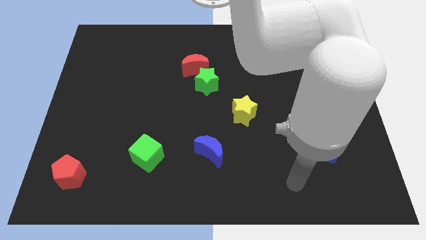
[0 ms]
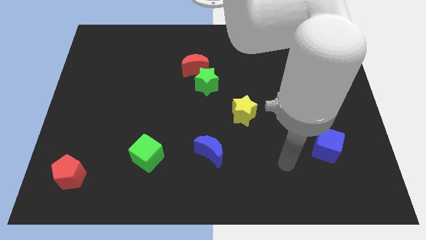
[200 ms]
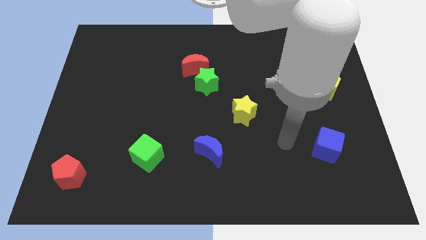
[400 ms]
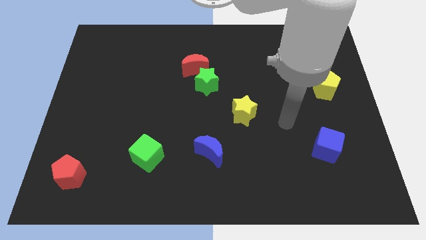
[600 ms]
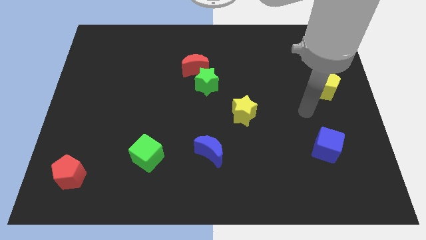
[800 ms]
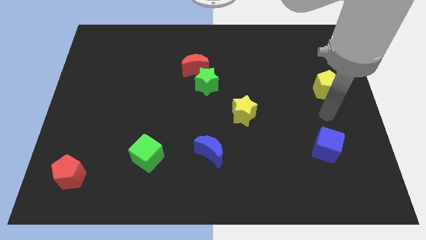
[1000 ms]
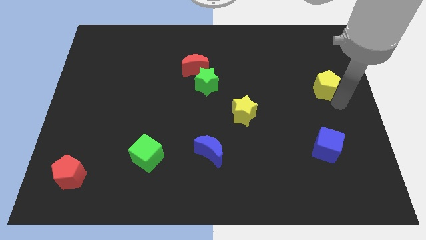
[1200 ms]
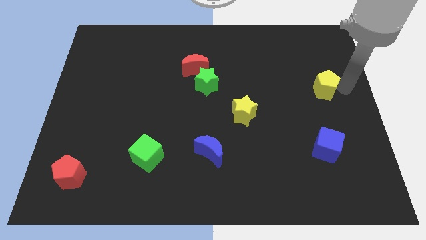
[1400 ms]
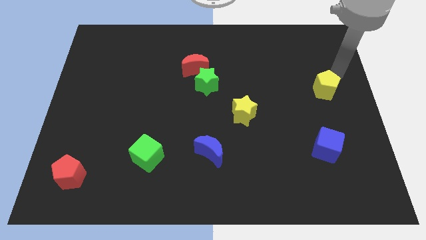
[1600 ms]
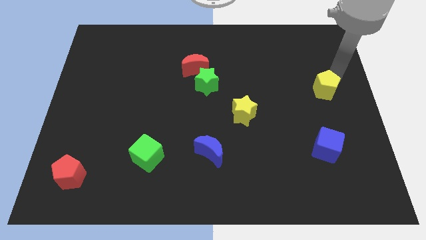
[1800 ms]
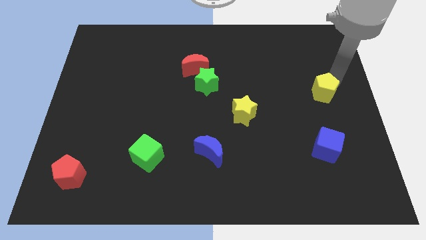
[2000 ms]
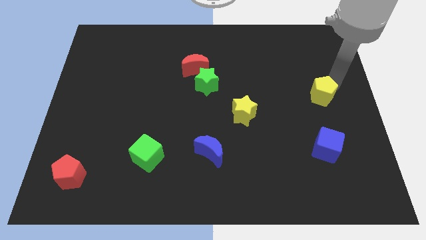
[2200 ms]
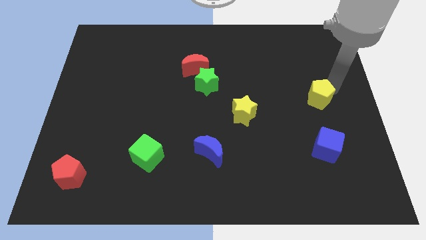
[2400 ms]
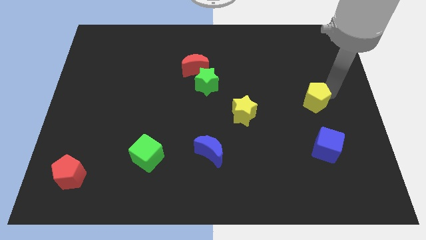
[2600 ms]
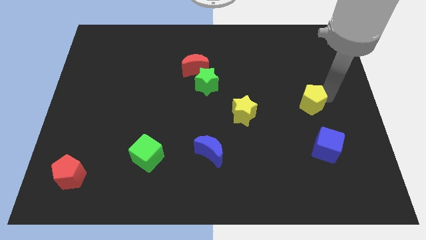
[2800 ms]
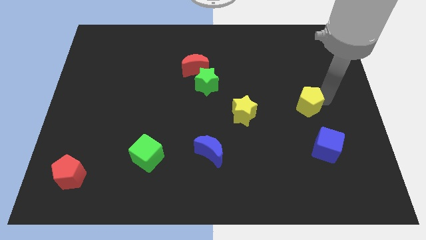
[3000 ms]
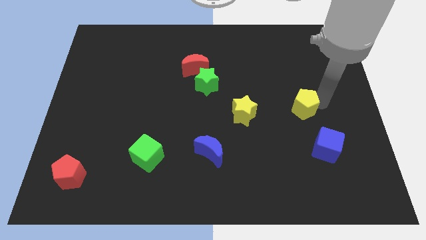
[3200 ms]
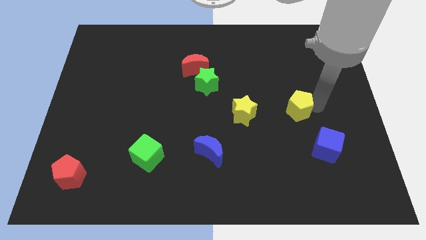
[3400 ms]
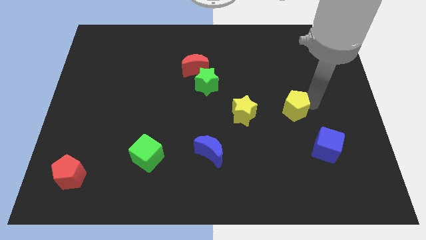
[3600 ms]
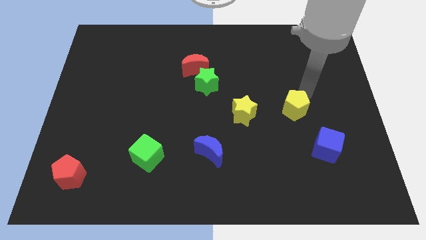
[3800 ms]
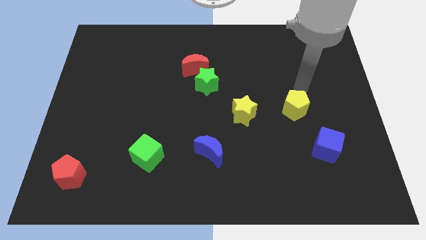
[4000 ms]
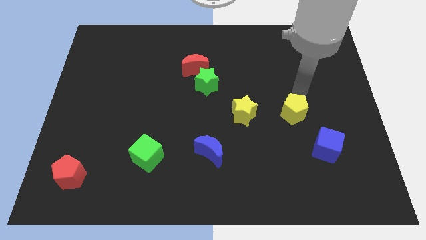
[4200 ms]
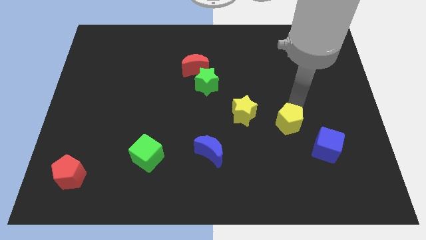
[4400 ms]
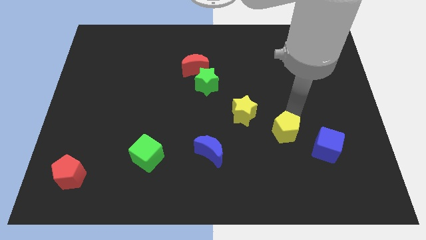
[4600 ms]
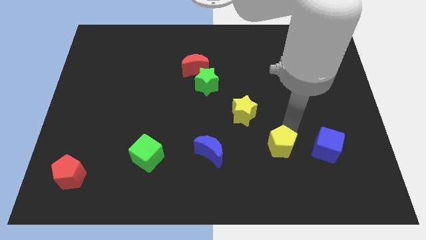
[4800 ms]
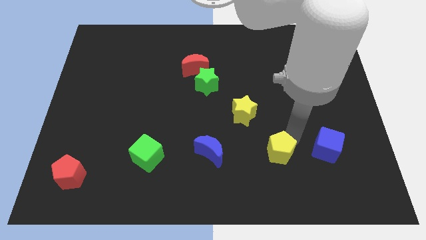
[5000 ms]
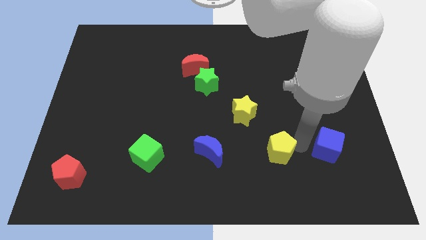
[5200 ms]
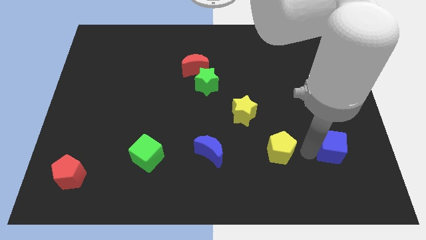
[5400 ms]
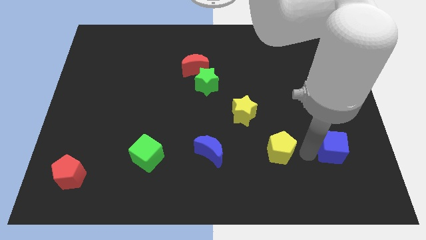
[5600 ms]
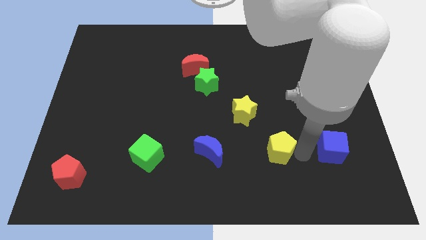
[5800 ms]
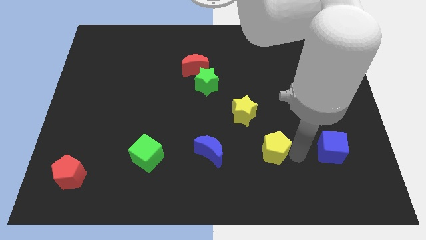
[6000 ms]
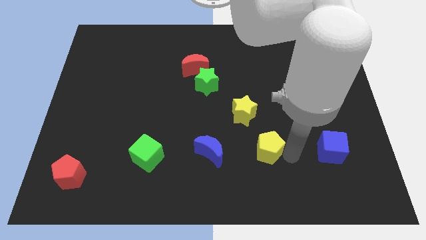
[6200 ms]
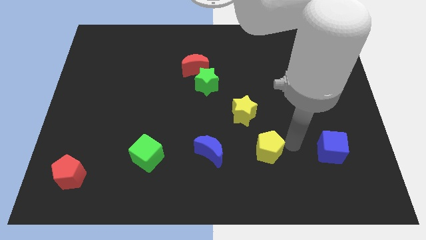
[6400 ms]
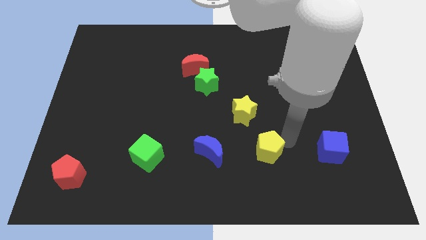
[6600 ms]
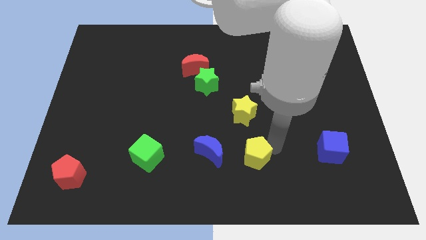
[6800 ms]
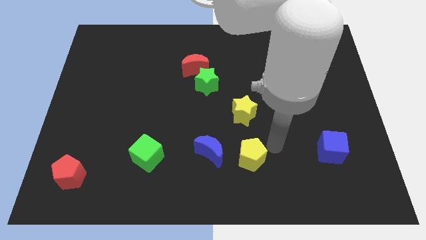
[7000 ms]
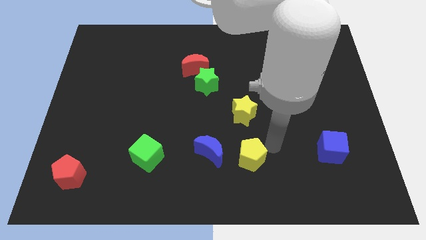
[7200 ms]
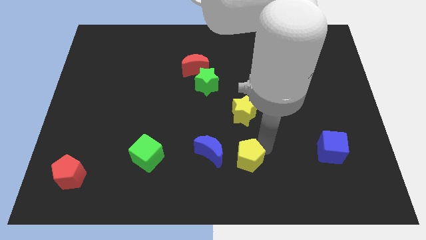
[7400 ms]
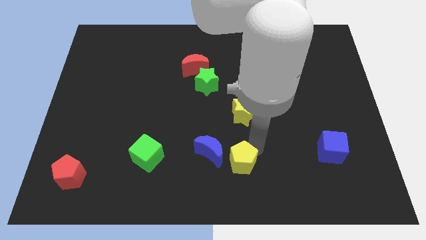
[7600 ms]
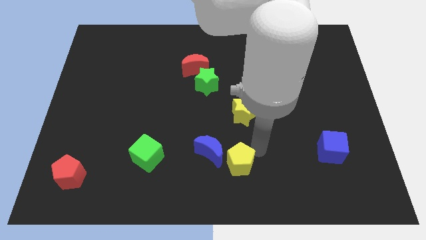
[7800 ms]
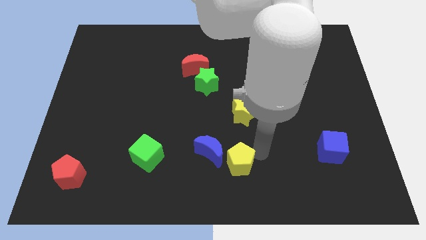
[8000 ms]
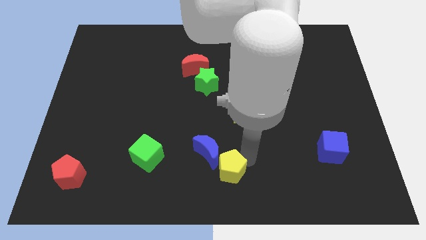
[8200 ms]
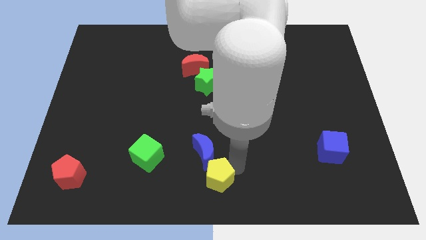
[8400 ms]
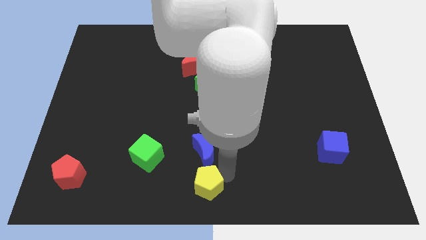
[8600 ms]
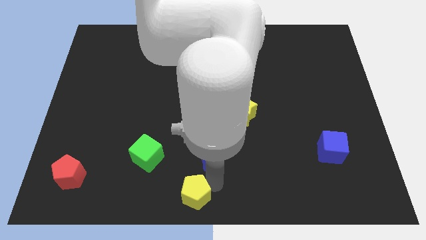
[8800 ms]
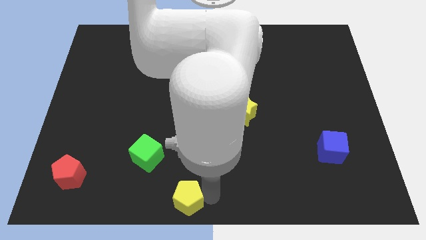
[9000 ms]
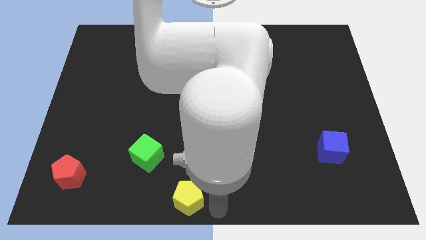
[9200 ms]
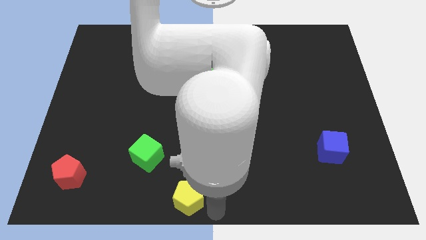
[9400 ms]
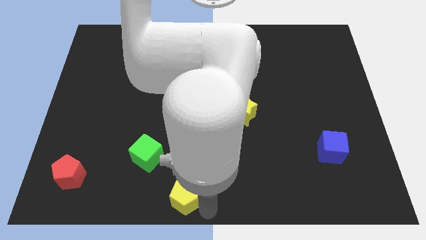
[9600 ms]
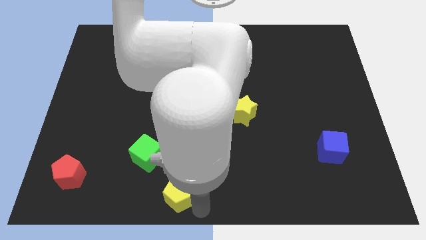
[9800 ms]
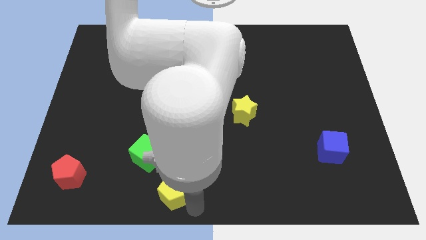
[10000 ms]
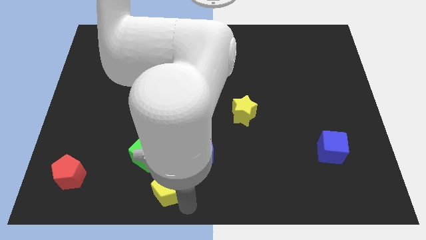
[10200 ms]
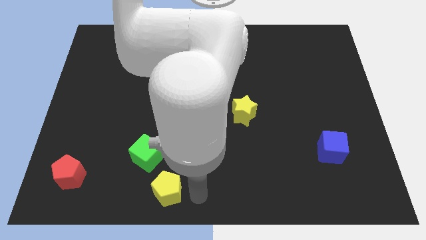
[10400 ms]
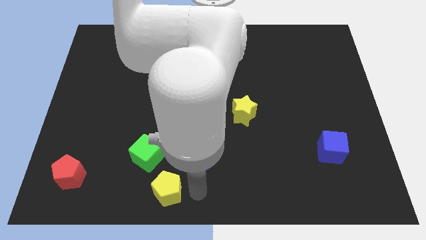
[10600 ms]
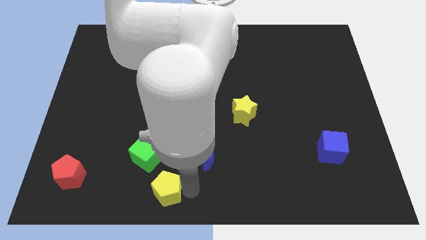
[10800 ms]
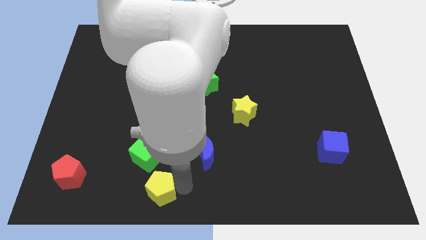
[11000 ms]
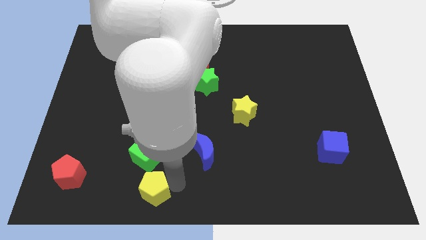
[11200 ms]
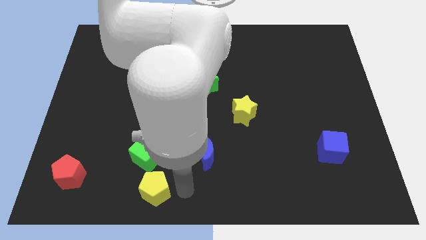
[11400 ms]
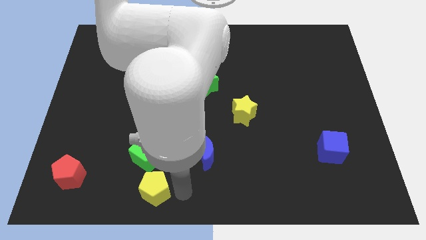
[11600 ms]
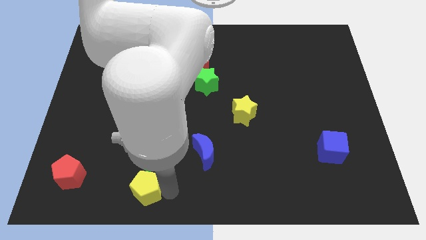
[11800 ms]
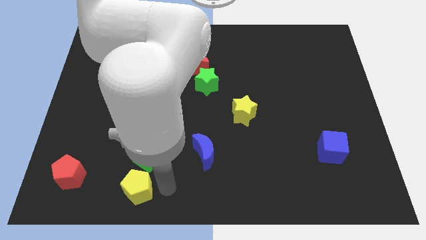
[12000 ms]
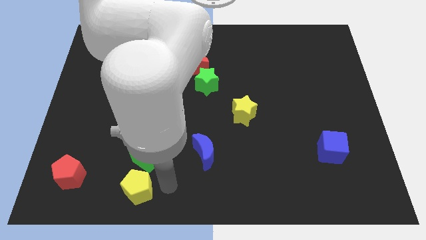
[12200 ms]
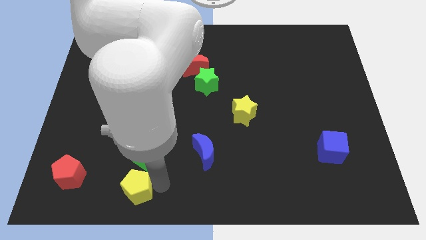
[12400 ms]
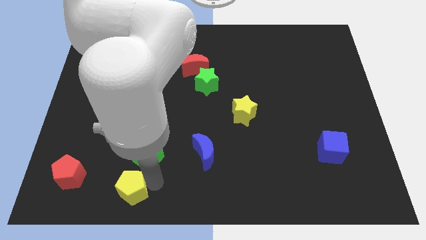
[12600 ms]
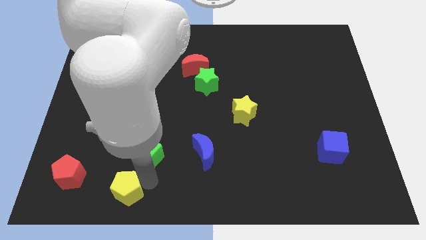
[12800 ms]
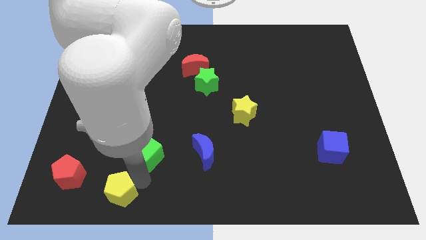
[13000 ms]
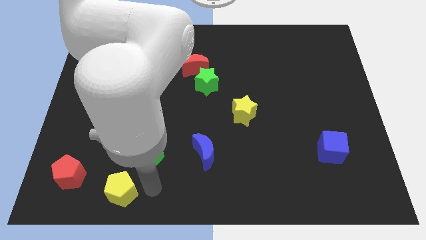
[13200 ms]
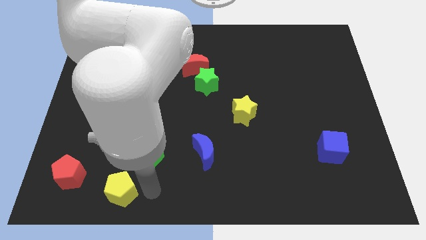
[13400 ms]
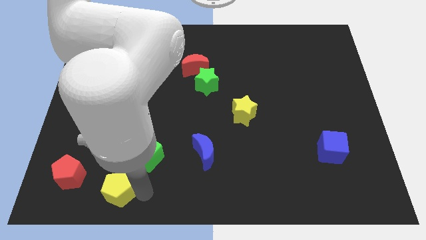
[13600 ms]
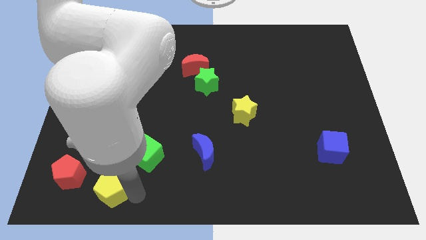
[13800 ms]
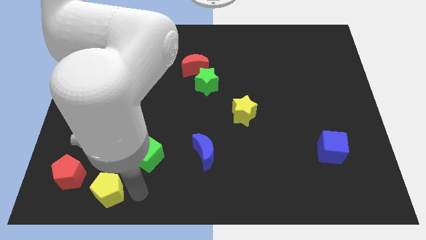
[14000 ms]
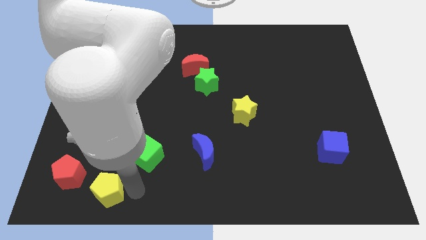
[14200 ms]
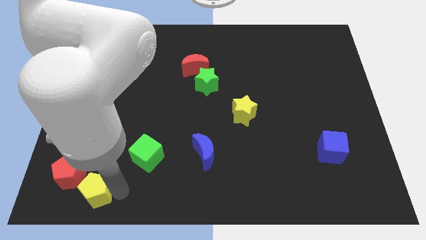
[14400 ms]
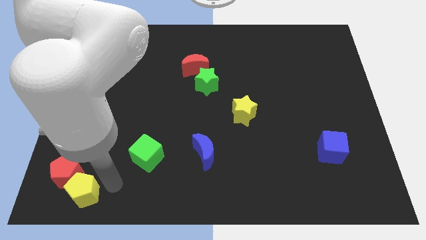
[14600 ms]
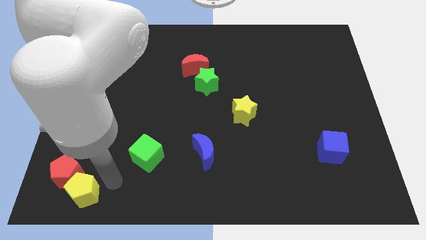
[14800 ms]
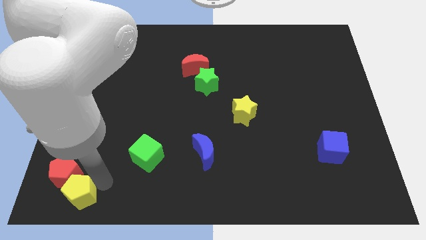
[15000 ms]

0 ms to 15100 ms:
slide the yellow pentagon to the bottom left corner
